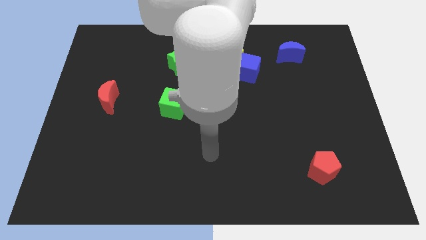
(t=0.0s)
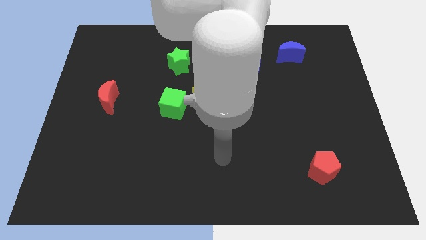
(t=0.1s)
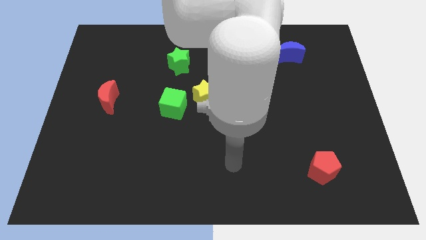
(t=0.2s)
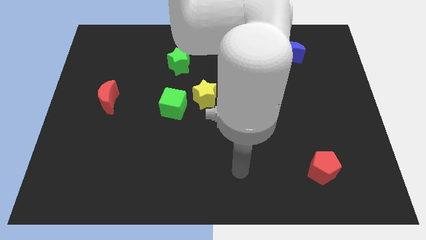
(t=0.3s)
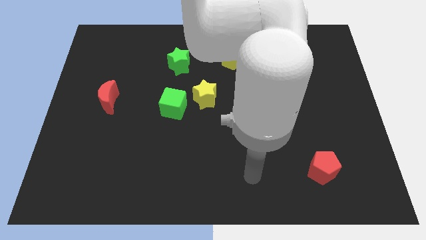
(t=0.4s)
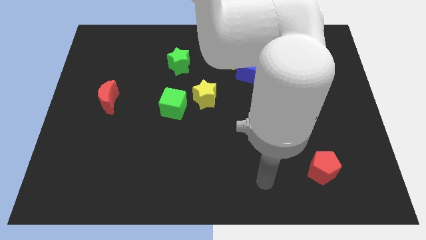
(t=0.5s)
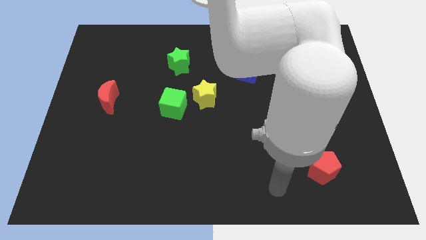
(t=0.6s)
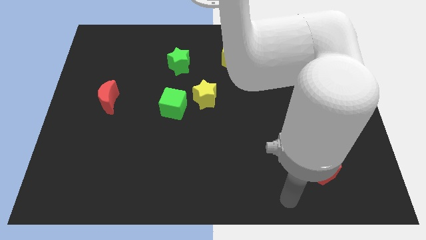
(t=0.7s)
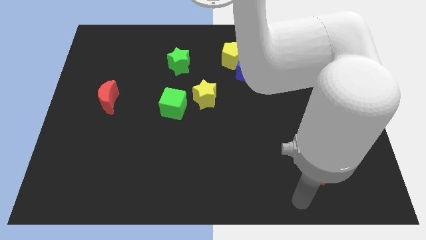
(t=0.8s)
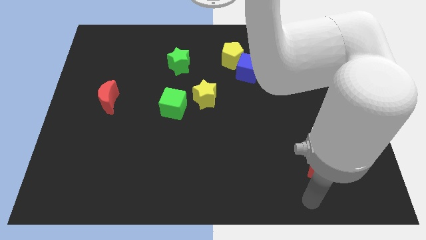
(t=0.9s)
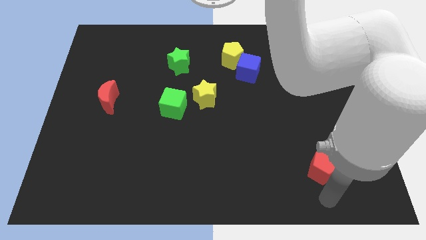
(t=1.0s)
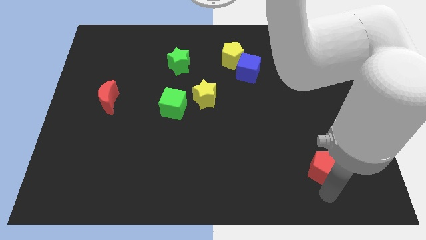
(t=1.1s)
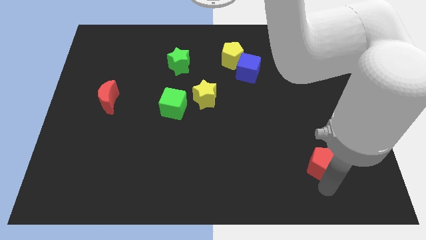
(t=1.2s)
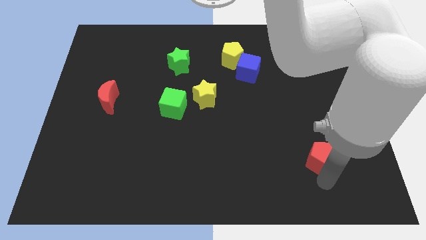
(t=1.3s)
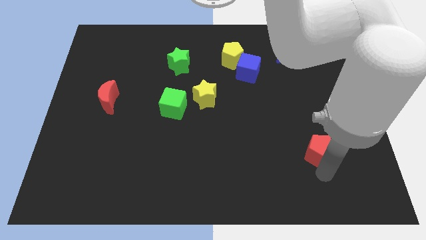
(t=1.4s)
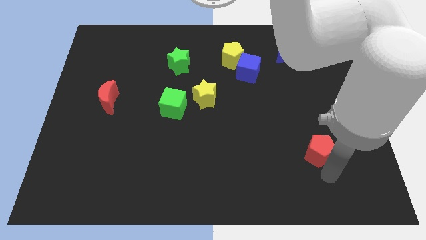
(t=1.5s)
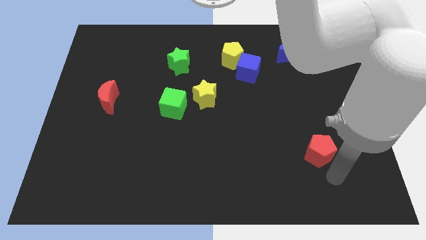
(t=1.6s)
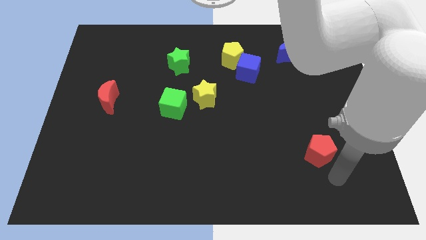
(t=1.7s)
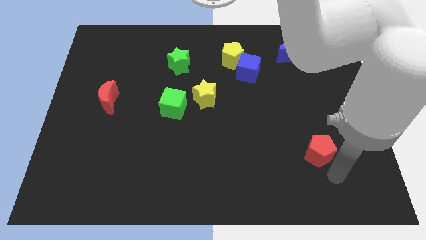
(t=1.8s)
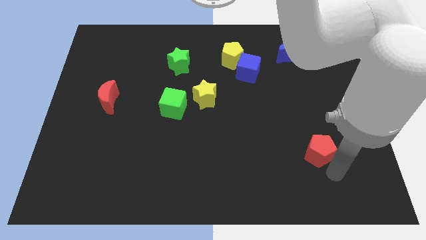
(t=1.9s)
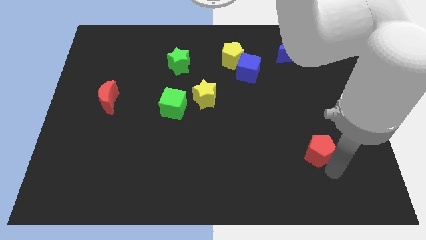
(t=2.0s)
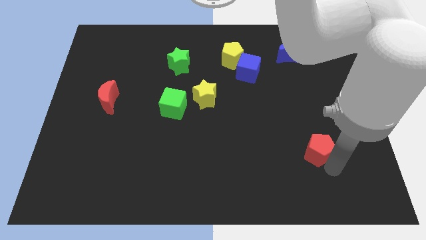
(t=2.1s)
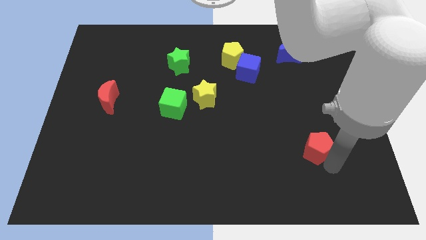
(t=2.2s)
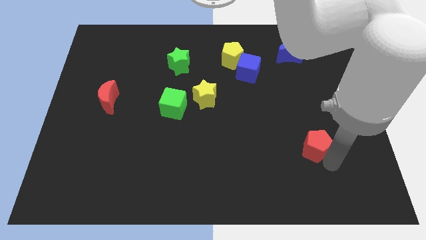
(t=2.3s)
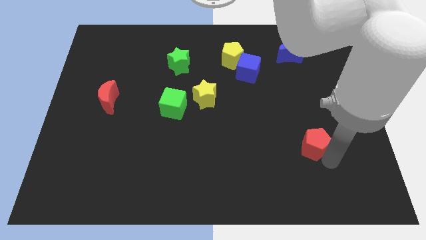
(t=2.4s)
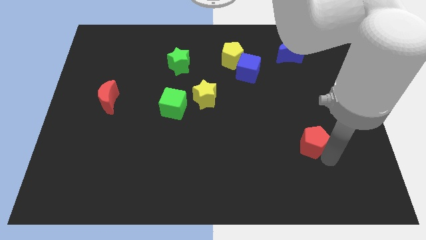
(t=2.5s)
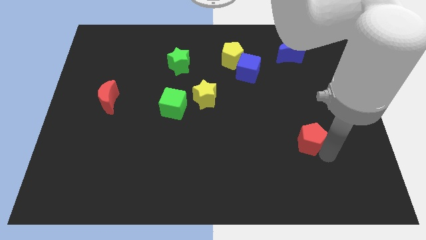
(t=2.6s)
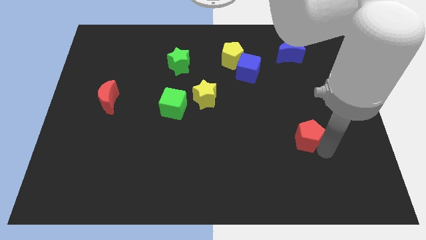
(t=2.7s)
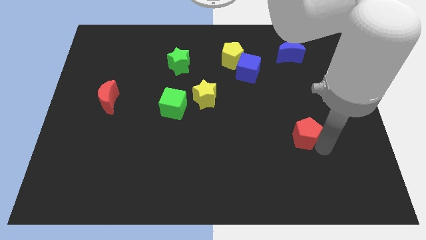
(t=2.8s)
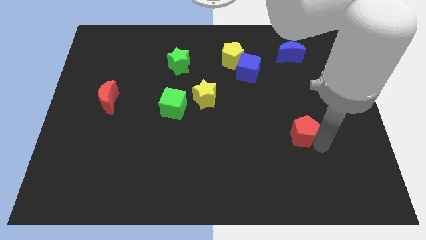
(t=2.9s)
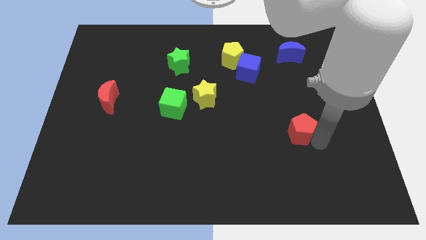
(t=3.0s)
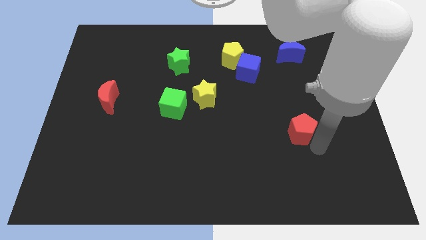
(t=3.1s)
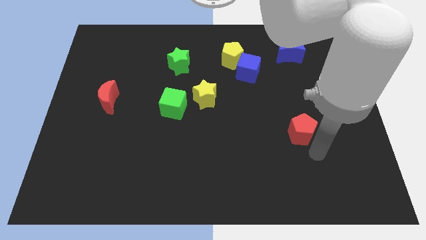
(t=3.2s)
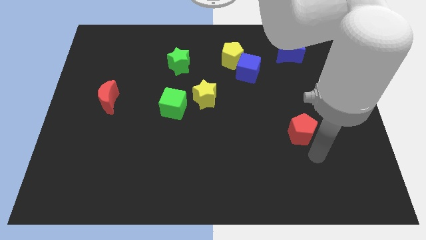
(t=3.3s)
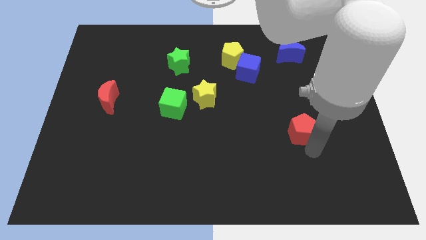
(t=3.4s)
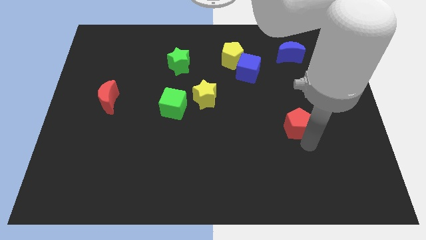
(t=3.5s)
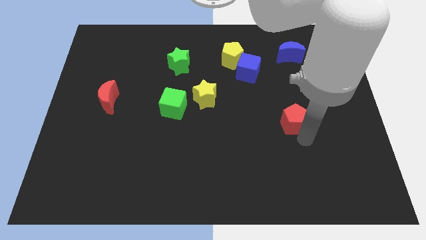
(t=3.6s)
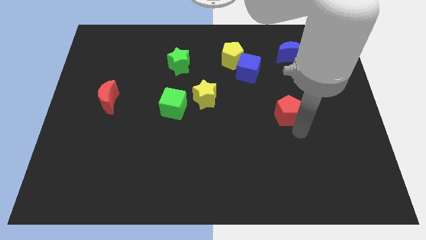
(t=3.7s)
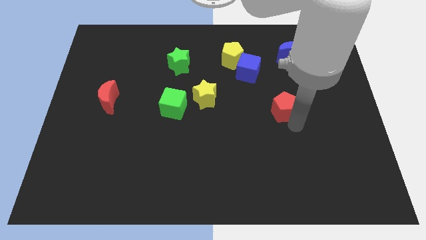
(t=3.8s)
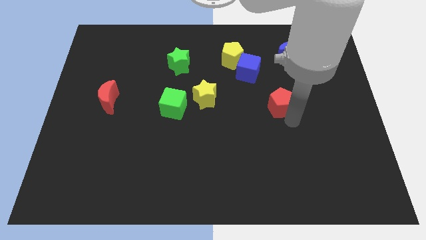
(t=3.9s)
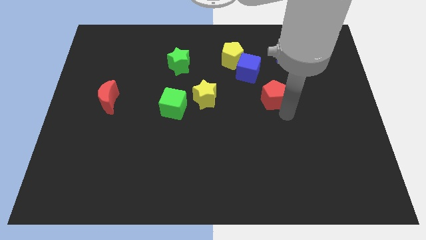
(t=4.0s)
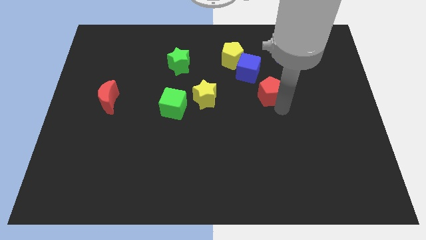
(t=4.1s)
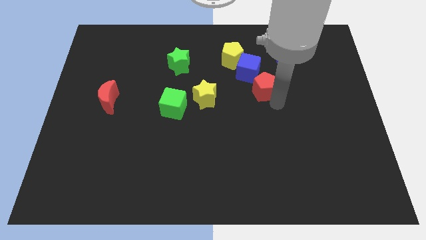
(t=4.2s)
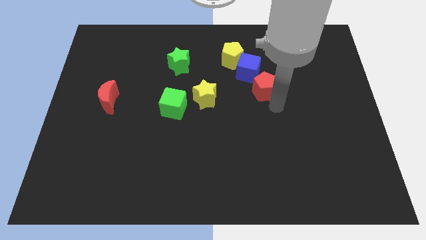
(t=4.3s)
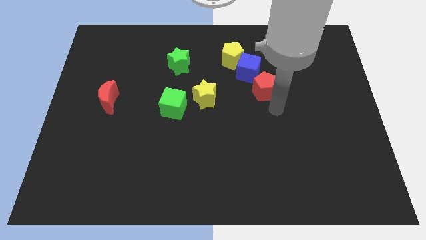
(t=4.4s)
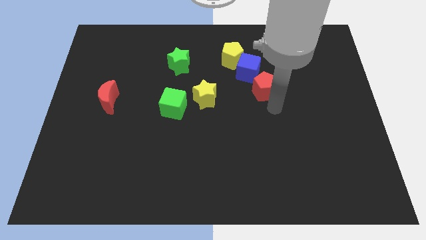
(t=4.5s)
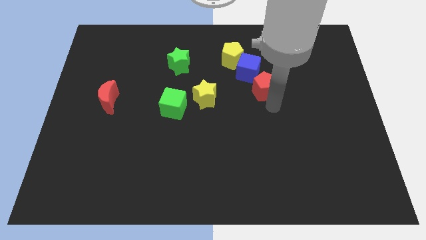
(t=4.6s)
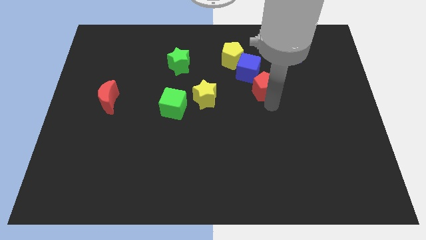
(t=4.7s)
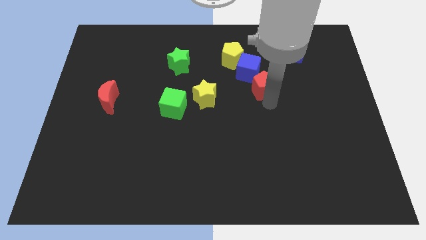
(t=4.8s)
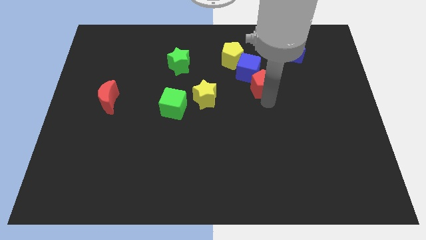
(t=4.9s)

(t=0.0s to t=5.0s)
move the red pentagon towards the blue cube

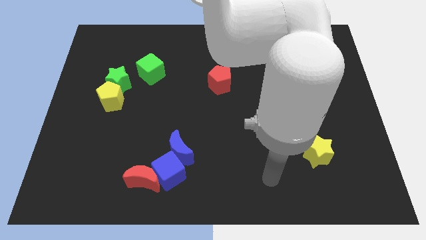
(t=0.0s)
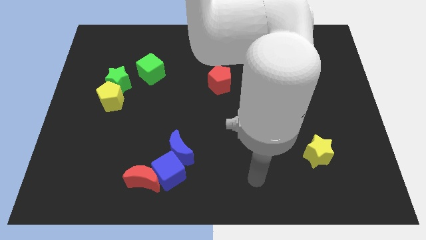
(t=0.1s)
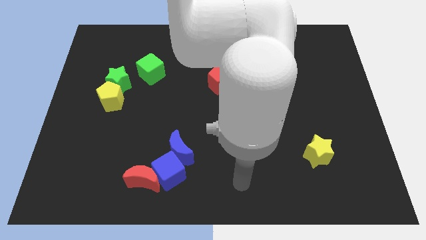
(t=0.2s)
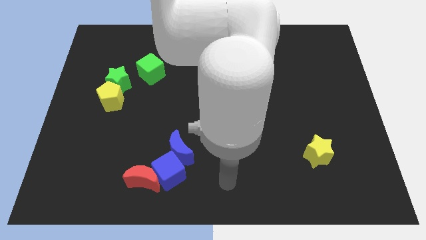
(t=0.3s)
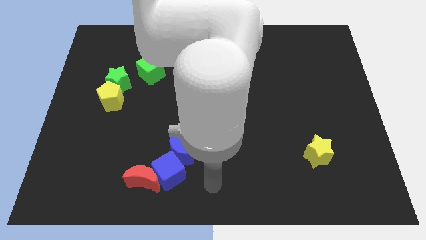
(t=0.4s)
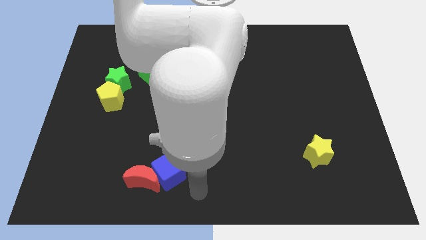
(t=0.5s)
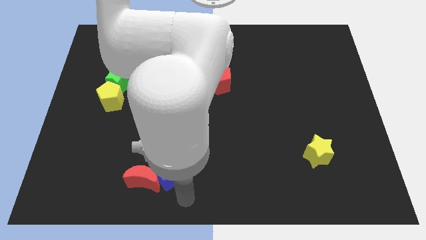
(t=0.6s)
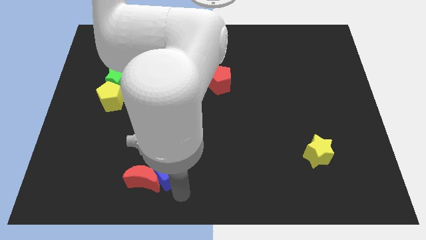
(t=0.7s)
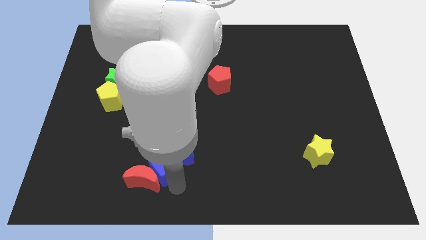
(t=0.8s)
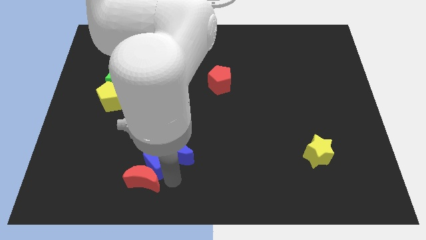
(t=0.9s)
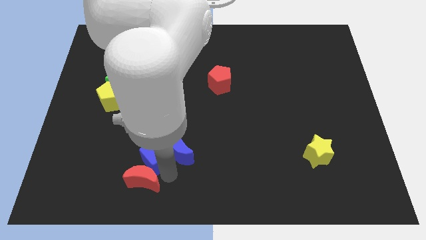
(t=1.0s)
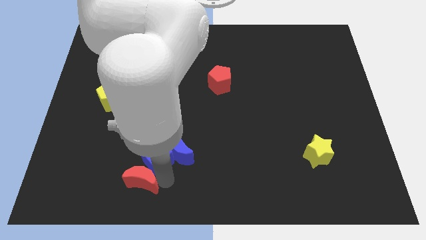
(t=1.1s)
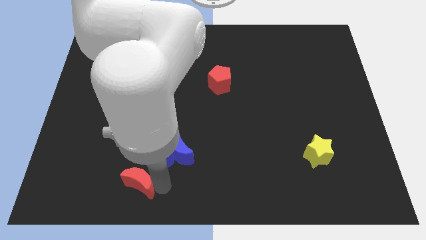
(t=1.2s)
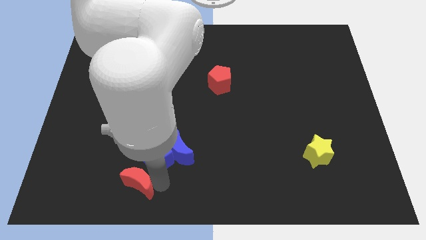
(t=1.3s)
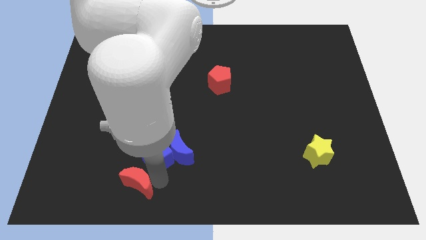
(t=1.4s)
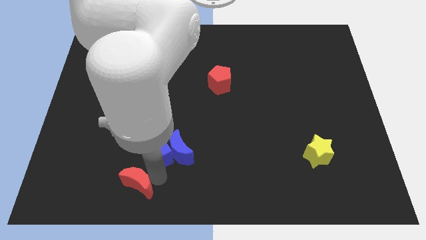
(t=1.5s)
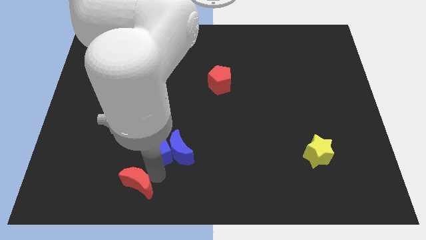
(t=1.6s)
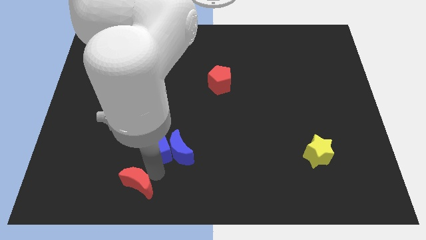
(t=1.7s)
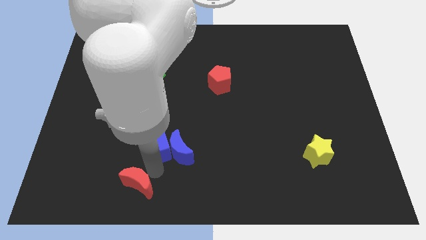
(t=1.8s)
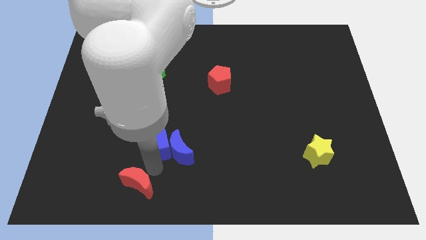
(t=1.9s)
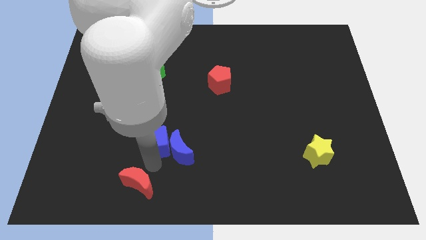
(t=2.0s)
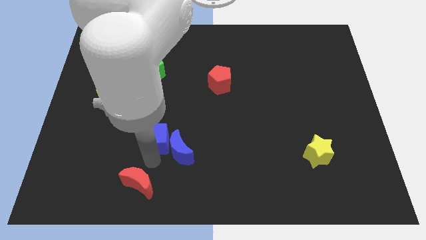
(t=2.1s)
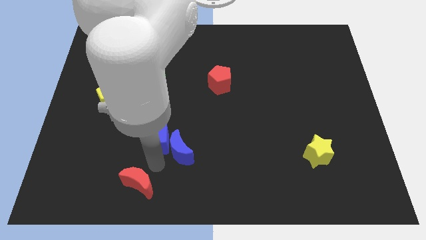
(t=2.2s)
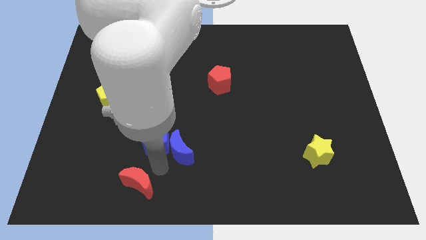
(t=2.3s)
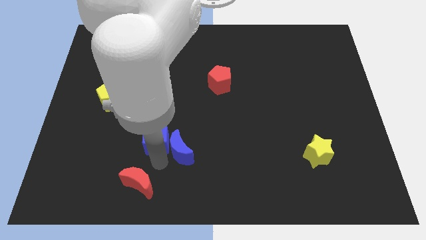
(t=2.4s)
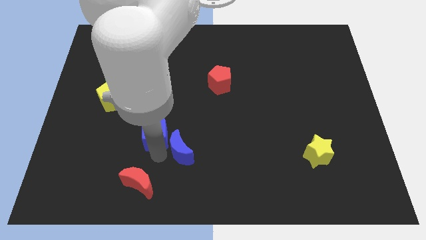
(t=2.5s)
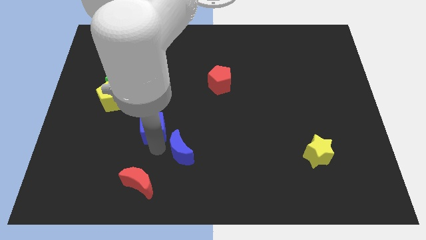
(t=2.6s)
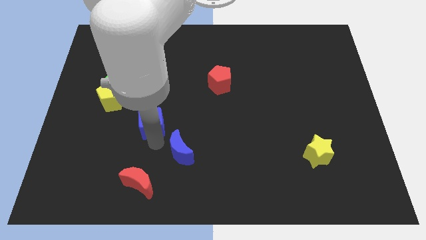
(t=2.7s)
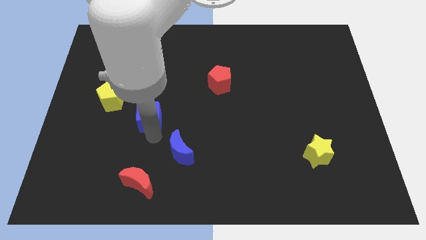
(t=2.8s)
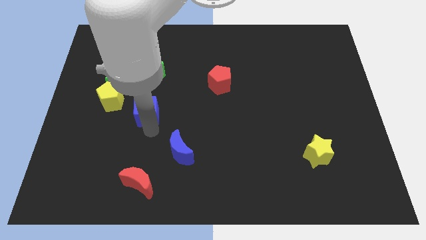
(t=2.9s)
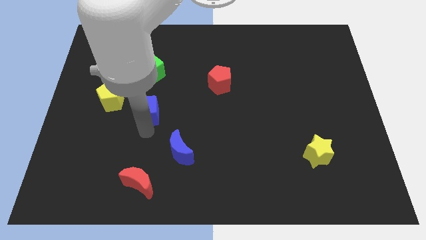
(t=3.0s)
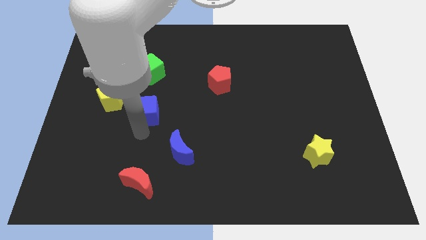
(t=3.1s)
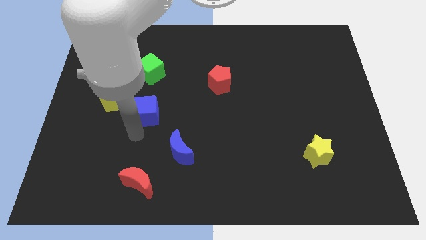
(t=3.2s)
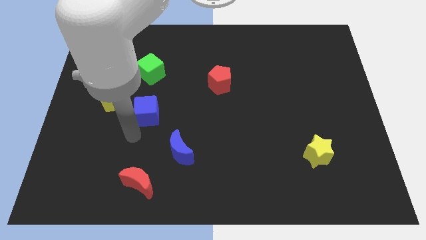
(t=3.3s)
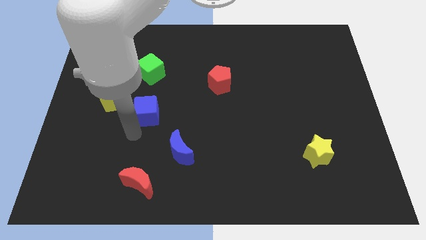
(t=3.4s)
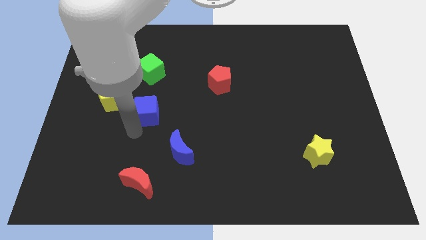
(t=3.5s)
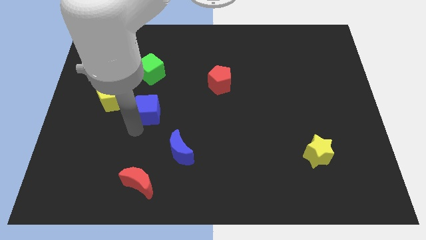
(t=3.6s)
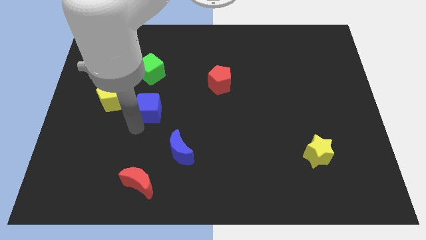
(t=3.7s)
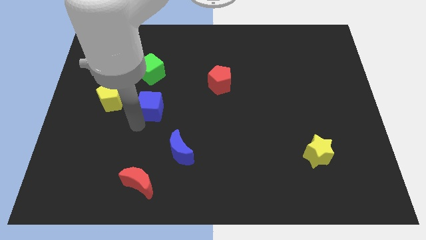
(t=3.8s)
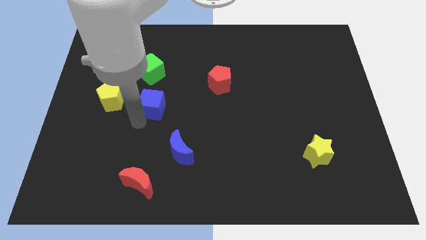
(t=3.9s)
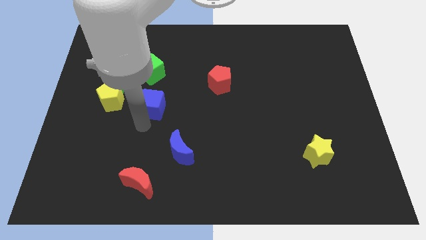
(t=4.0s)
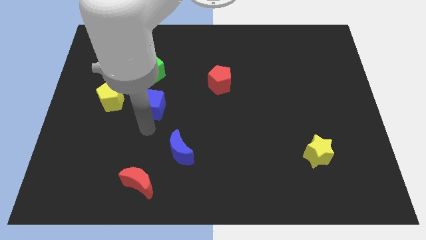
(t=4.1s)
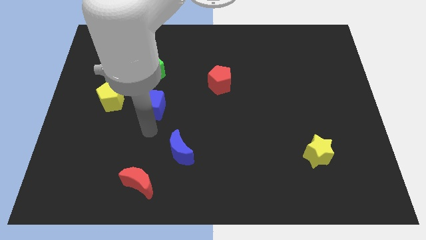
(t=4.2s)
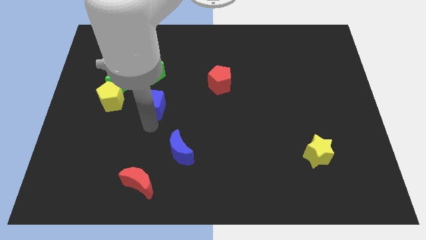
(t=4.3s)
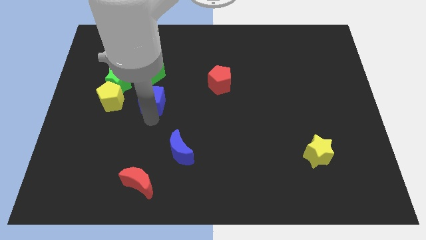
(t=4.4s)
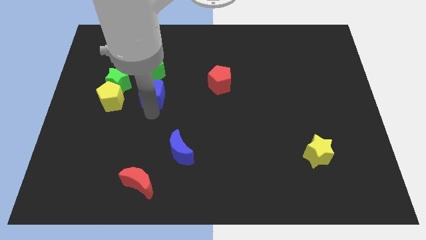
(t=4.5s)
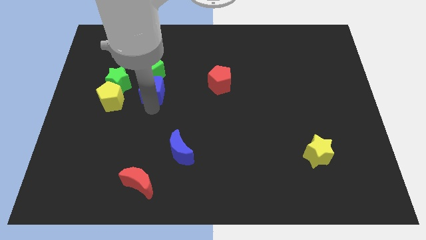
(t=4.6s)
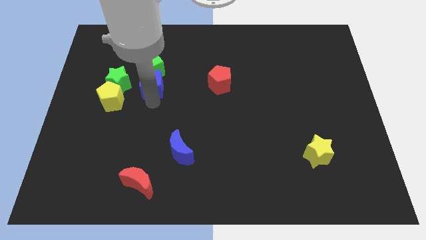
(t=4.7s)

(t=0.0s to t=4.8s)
put the blue cube towards the green cube
